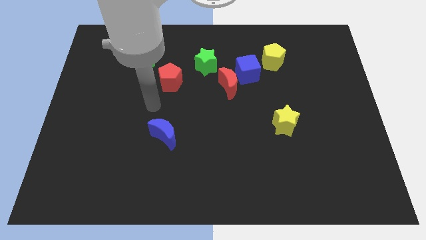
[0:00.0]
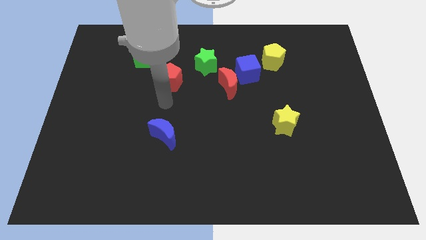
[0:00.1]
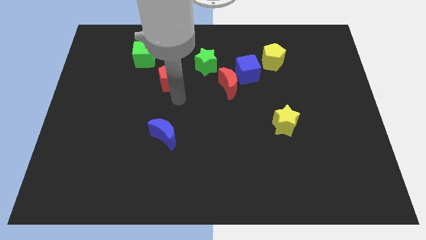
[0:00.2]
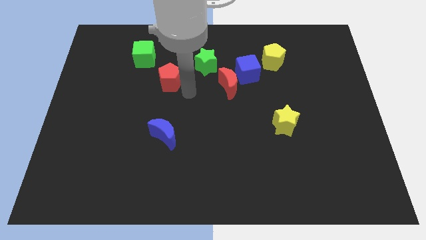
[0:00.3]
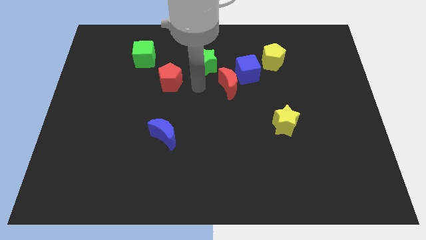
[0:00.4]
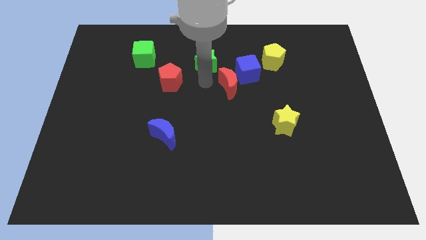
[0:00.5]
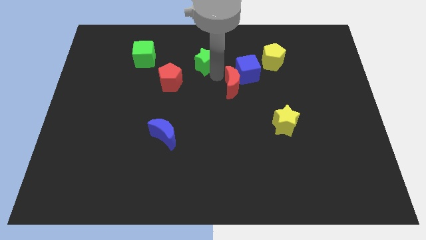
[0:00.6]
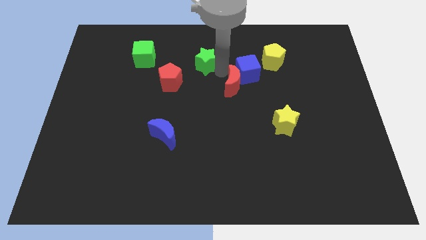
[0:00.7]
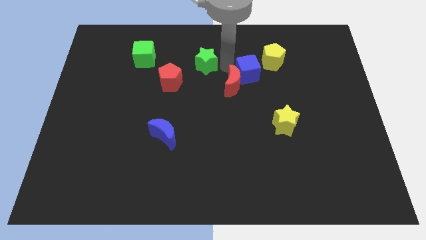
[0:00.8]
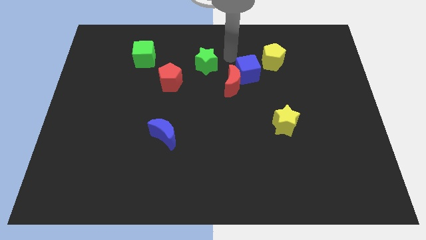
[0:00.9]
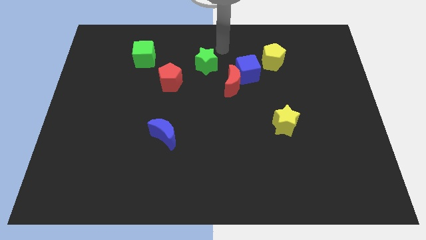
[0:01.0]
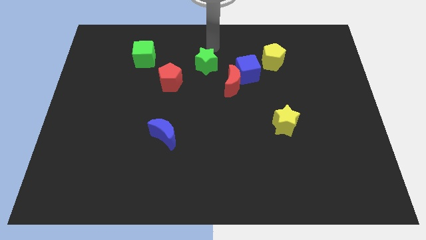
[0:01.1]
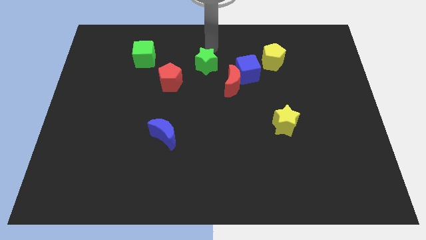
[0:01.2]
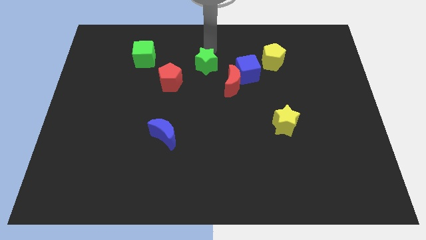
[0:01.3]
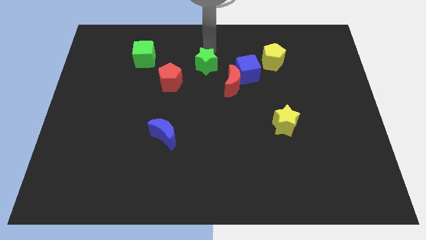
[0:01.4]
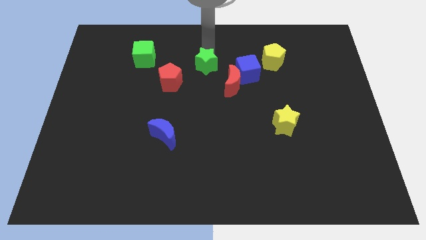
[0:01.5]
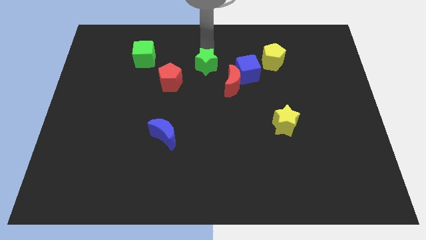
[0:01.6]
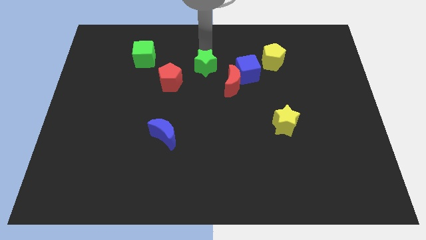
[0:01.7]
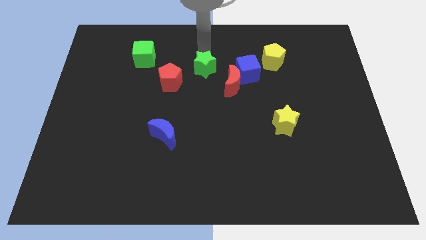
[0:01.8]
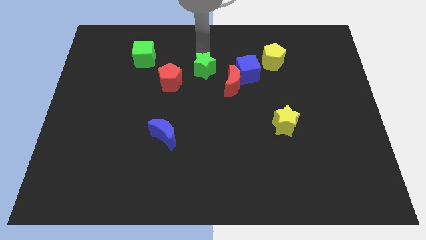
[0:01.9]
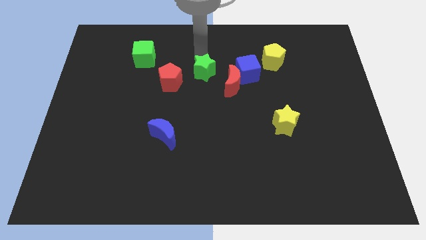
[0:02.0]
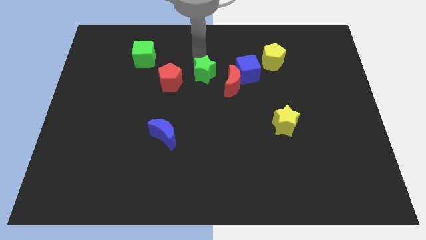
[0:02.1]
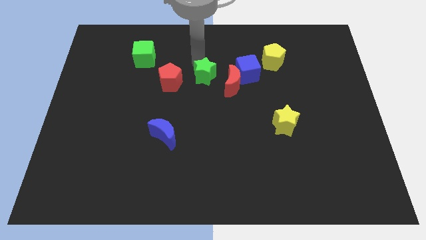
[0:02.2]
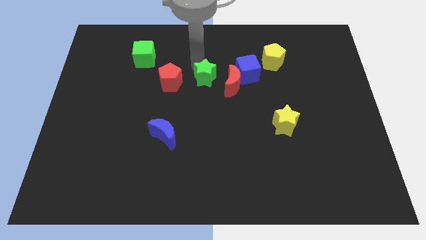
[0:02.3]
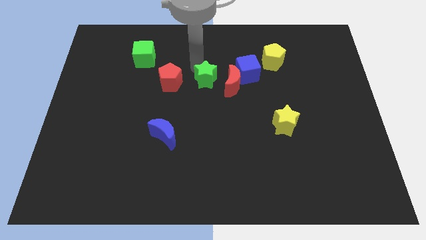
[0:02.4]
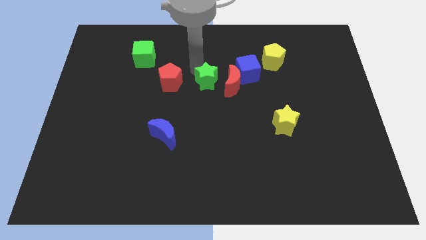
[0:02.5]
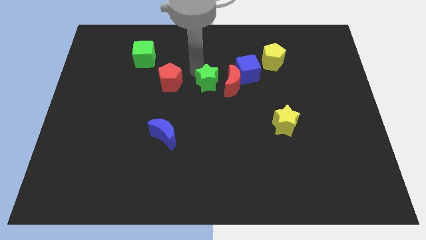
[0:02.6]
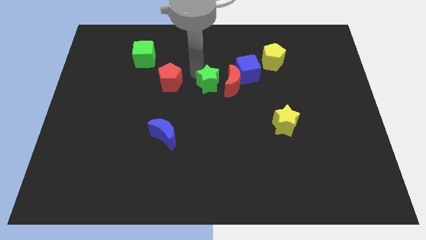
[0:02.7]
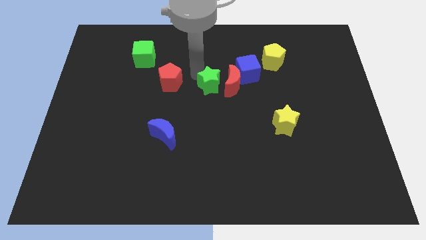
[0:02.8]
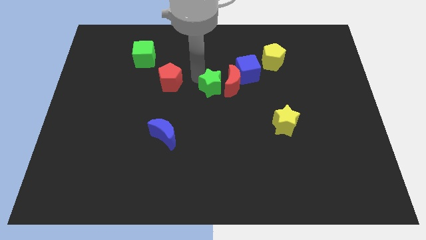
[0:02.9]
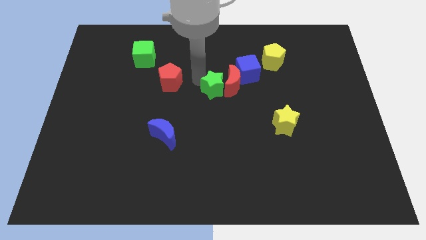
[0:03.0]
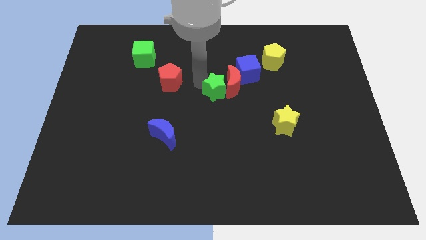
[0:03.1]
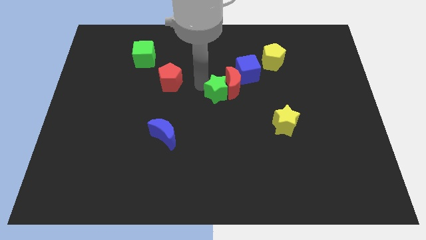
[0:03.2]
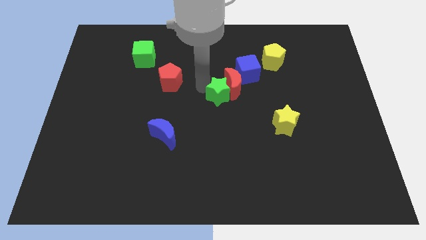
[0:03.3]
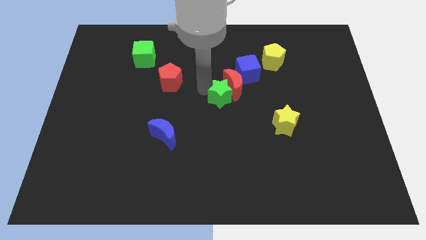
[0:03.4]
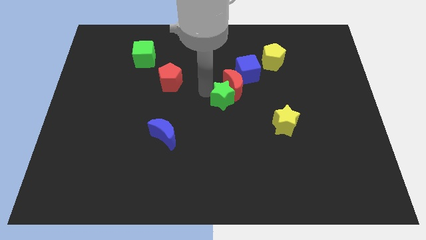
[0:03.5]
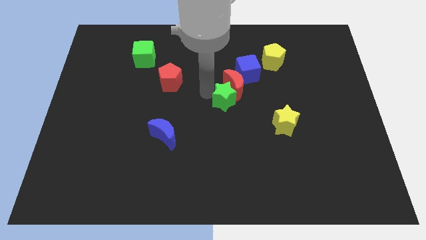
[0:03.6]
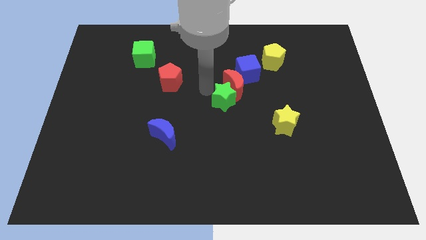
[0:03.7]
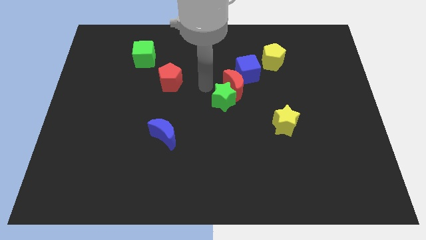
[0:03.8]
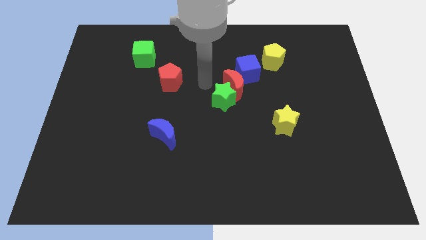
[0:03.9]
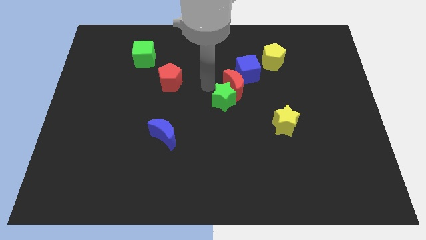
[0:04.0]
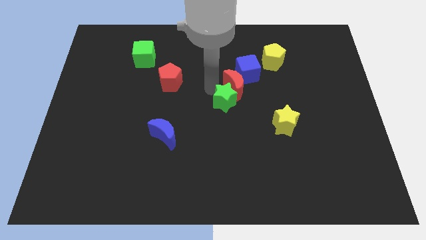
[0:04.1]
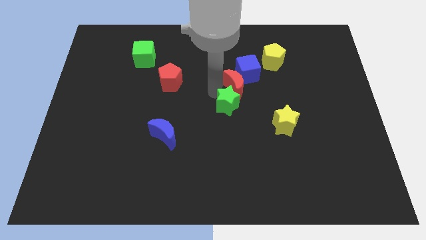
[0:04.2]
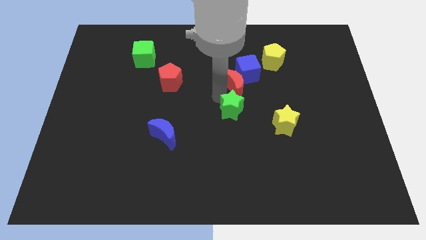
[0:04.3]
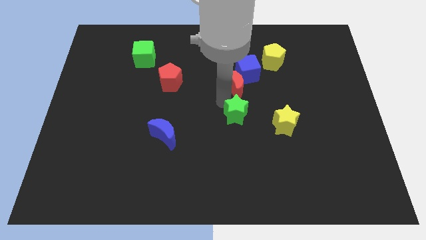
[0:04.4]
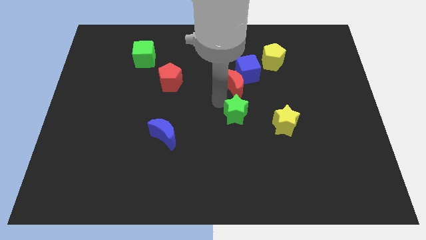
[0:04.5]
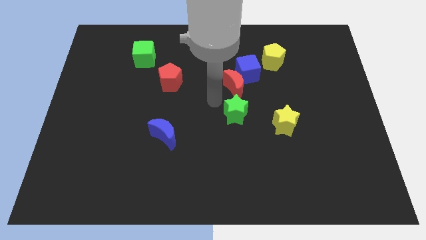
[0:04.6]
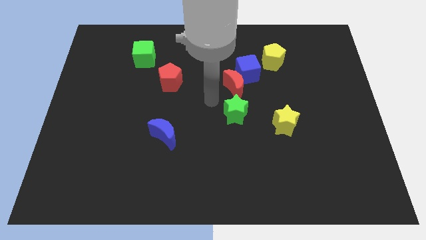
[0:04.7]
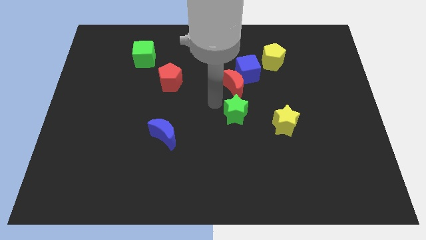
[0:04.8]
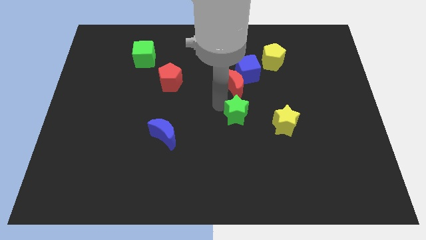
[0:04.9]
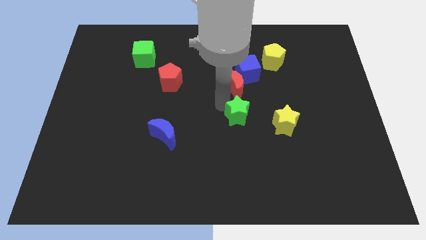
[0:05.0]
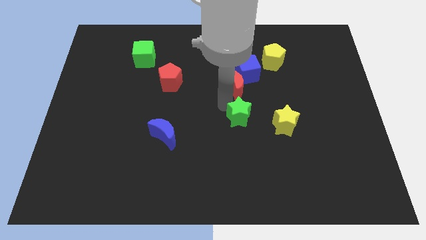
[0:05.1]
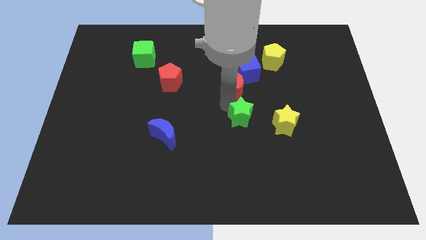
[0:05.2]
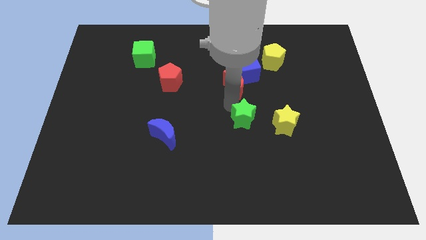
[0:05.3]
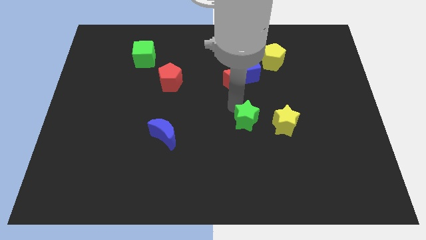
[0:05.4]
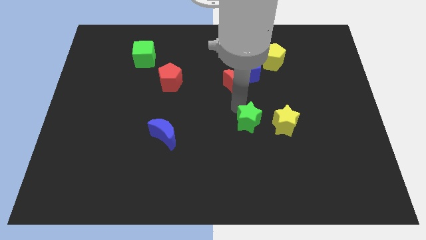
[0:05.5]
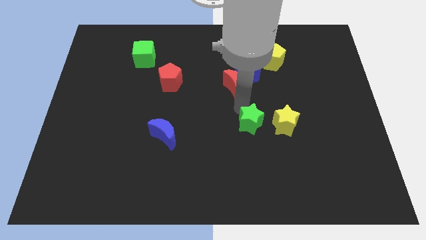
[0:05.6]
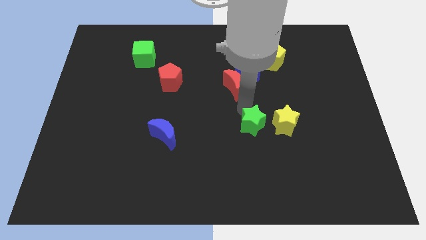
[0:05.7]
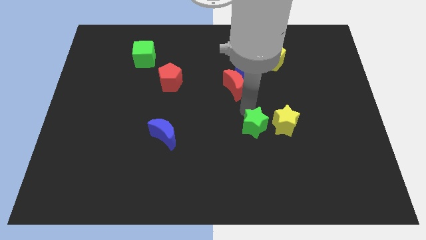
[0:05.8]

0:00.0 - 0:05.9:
slide the green star down and right diagonally

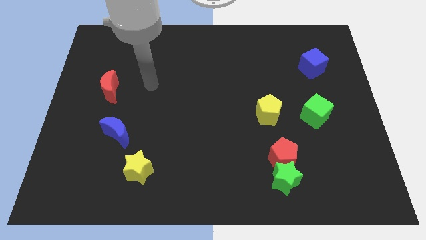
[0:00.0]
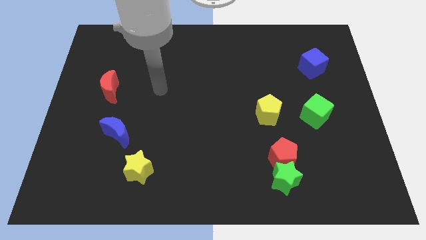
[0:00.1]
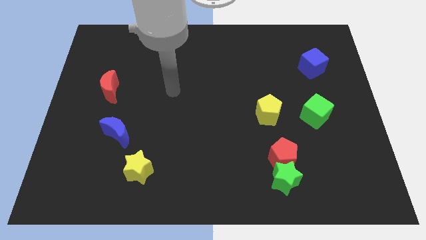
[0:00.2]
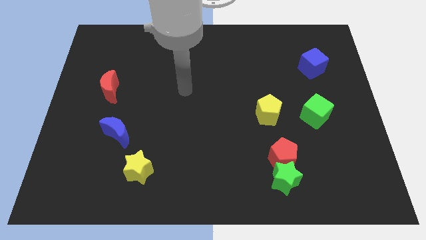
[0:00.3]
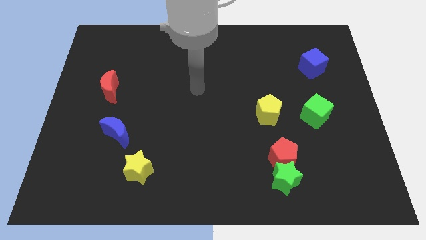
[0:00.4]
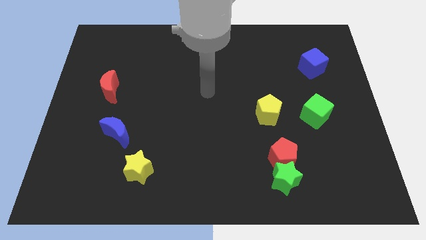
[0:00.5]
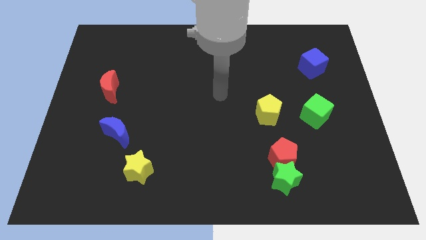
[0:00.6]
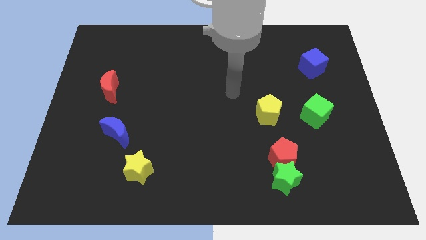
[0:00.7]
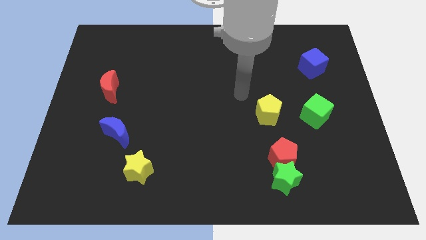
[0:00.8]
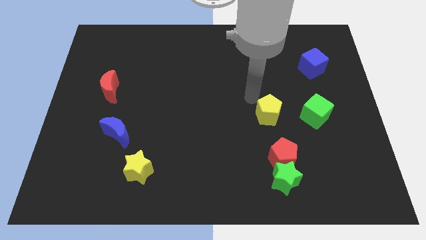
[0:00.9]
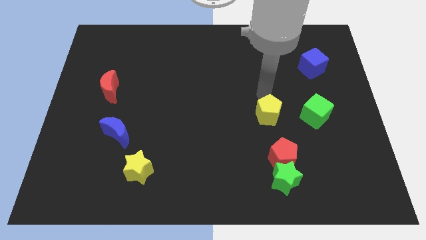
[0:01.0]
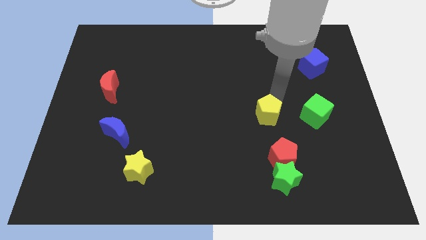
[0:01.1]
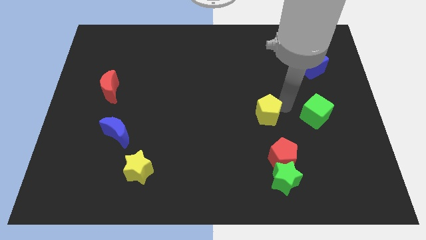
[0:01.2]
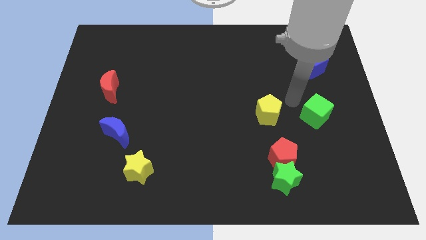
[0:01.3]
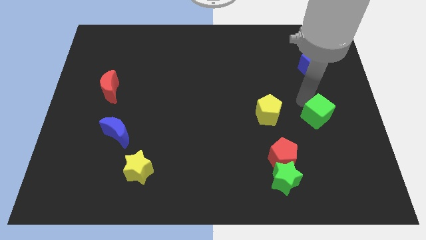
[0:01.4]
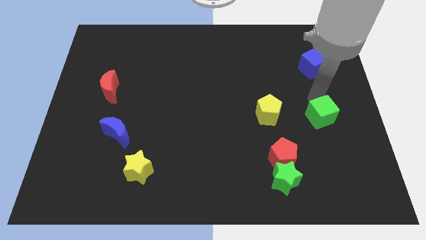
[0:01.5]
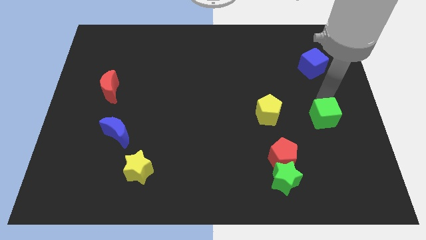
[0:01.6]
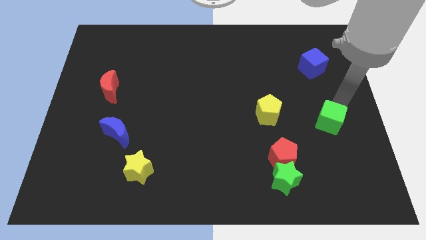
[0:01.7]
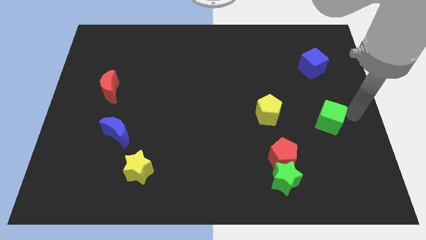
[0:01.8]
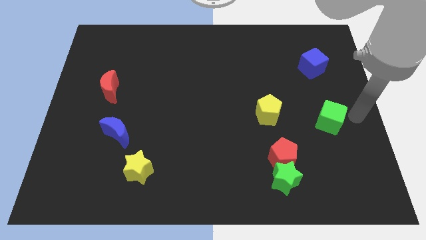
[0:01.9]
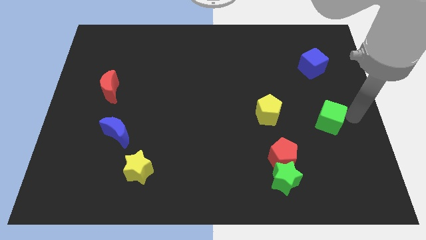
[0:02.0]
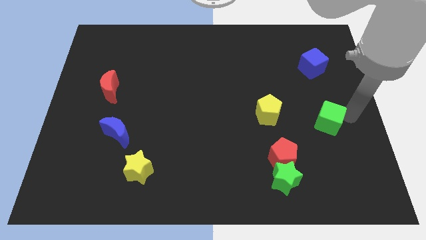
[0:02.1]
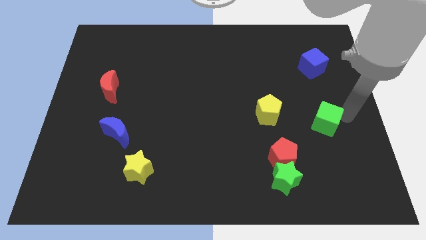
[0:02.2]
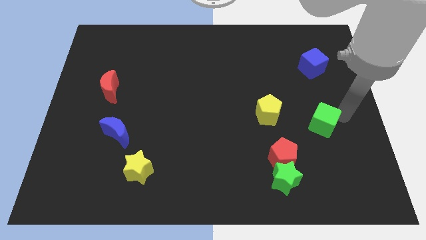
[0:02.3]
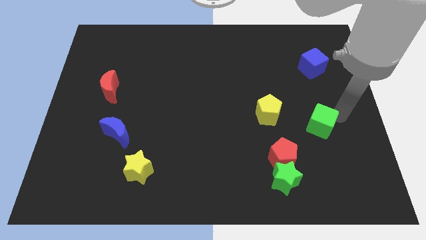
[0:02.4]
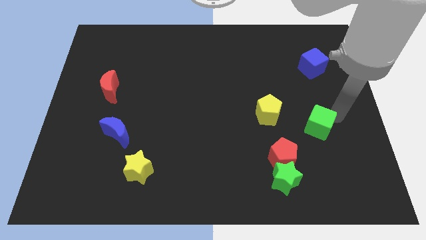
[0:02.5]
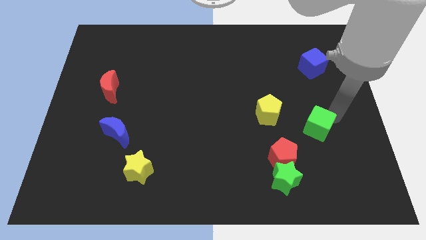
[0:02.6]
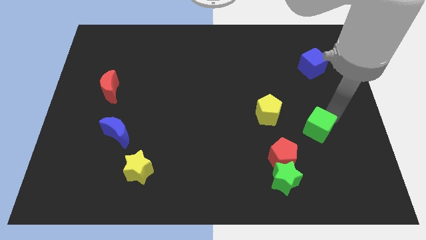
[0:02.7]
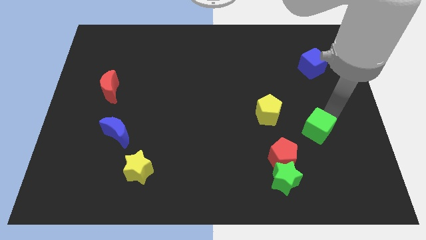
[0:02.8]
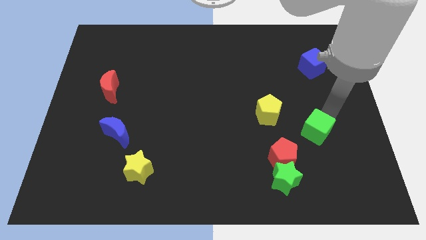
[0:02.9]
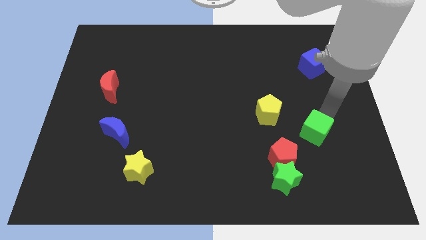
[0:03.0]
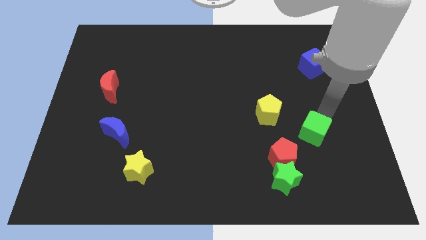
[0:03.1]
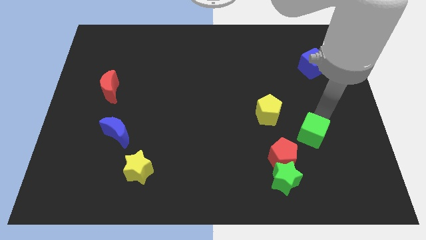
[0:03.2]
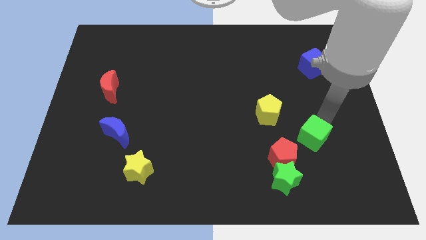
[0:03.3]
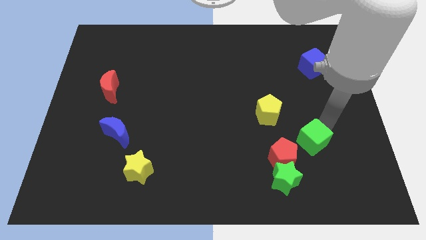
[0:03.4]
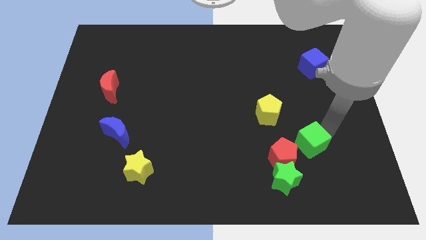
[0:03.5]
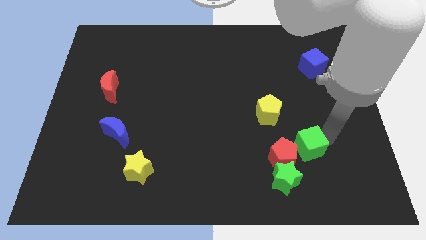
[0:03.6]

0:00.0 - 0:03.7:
slide the green cube a little diagonally downwards and left
